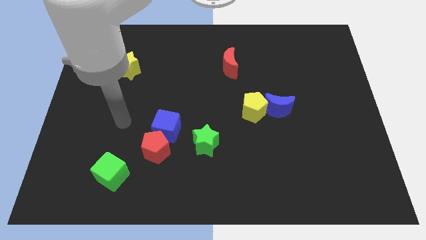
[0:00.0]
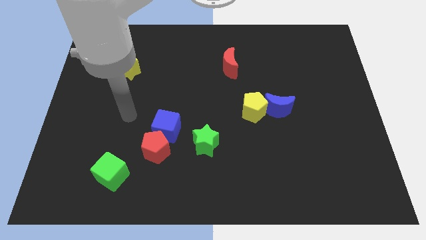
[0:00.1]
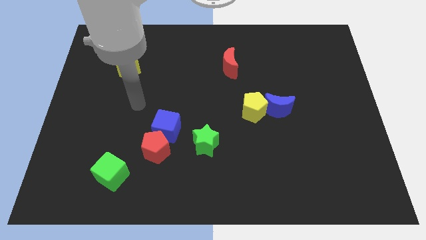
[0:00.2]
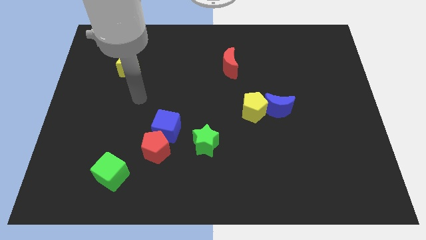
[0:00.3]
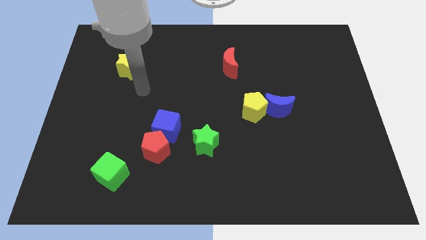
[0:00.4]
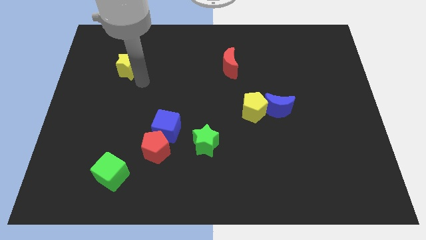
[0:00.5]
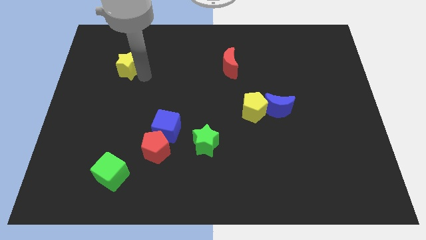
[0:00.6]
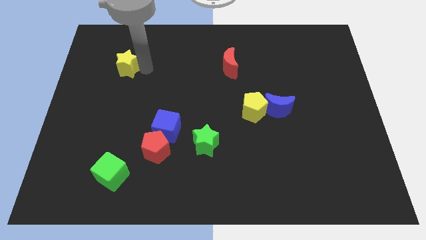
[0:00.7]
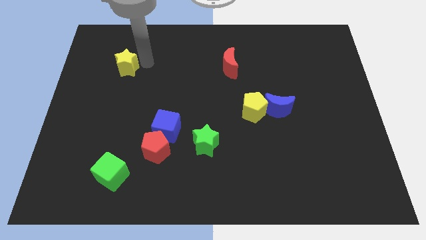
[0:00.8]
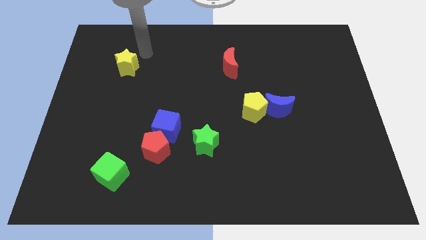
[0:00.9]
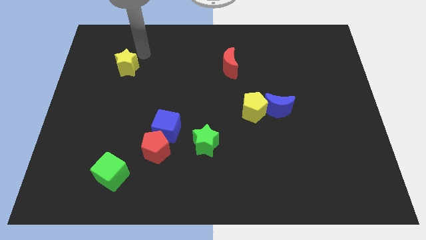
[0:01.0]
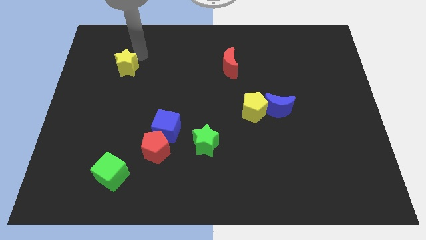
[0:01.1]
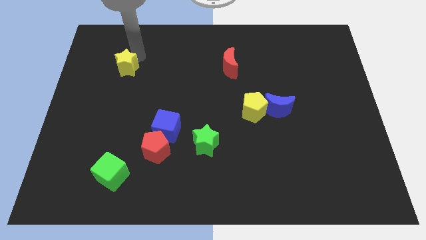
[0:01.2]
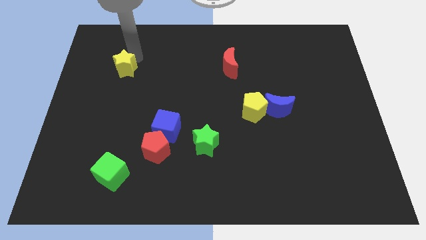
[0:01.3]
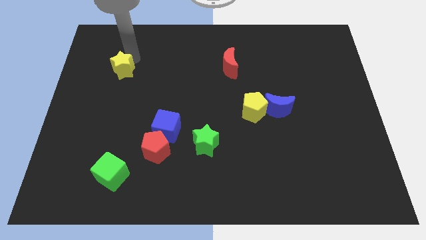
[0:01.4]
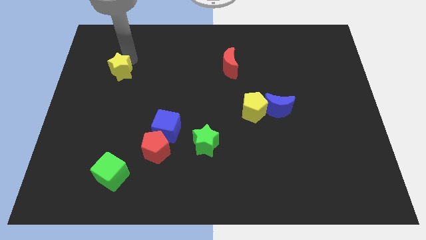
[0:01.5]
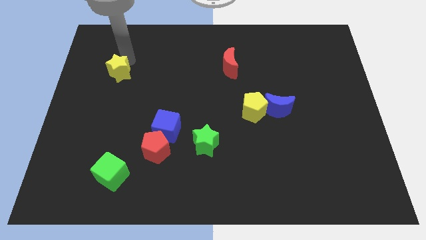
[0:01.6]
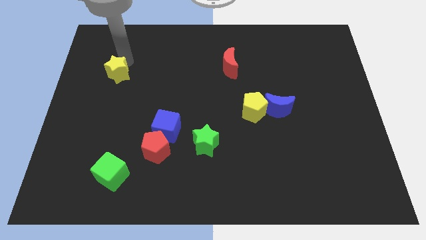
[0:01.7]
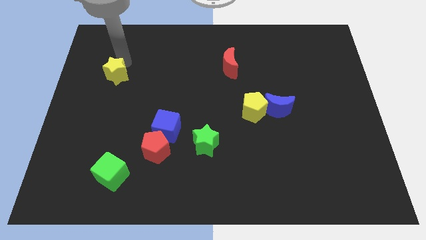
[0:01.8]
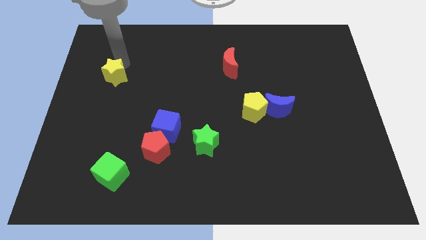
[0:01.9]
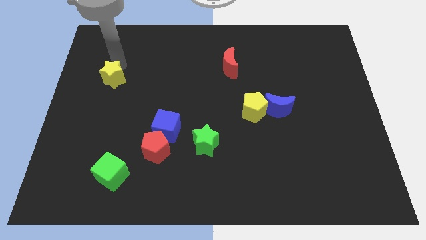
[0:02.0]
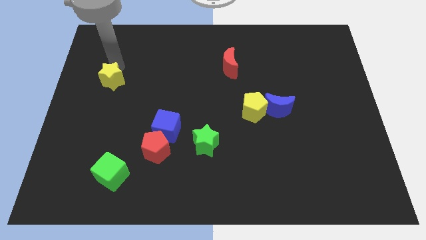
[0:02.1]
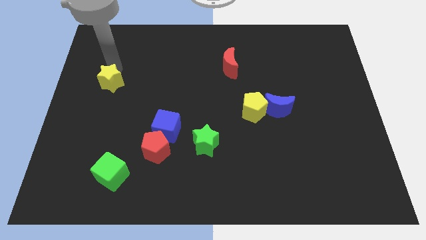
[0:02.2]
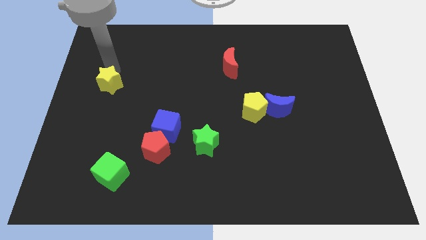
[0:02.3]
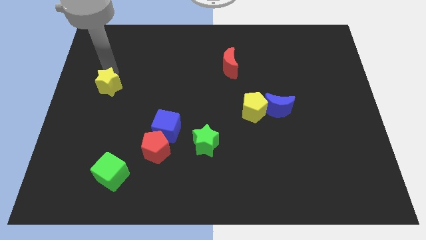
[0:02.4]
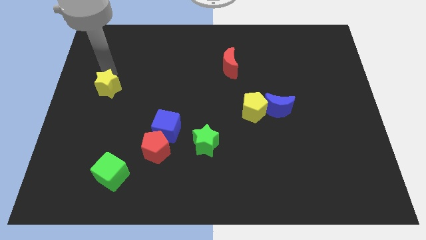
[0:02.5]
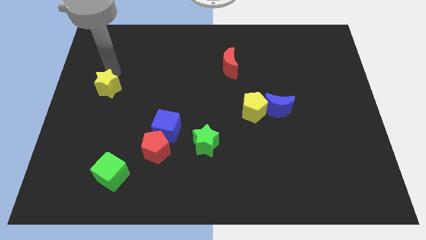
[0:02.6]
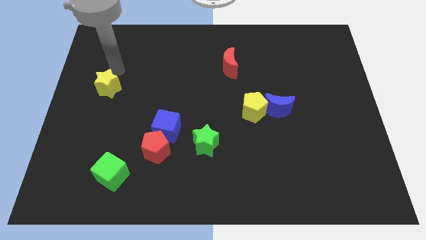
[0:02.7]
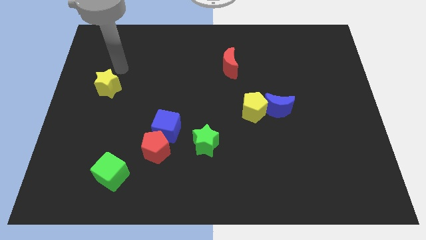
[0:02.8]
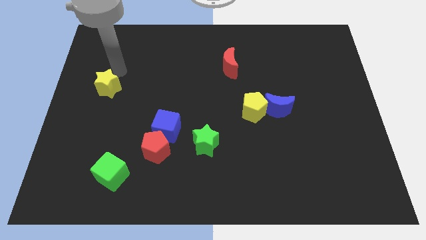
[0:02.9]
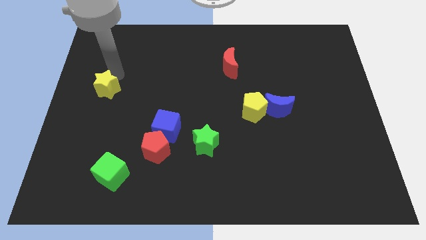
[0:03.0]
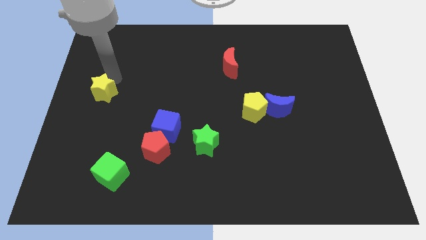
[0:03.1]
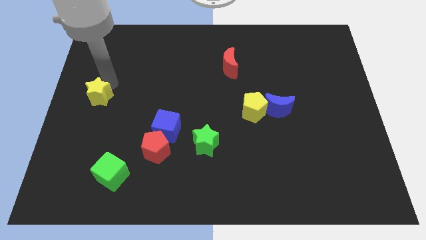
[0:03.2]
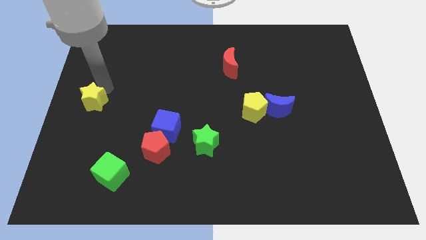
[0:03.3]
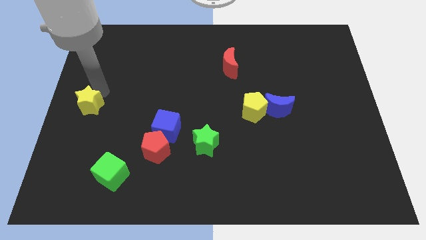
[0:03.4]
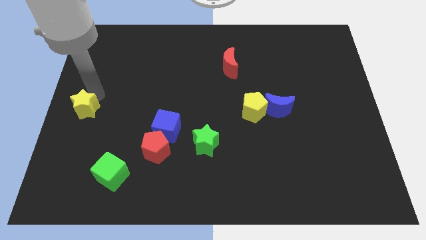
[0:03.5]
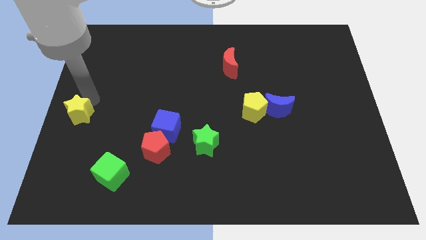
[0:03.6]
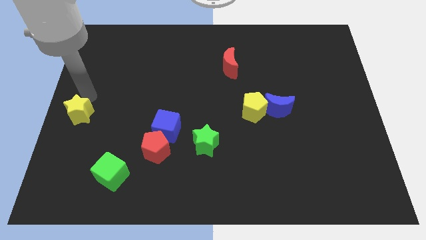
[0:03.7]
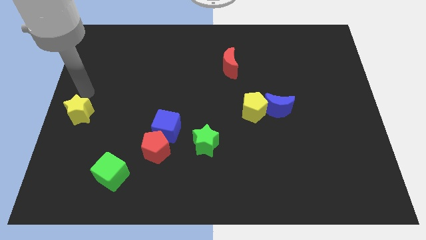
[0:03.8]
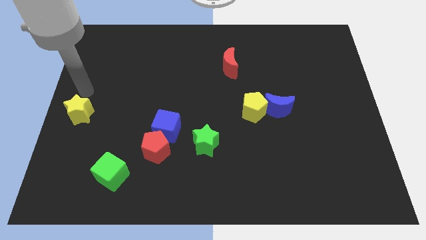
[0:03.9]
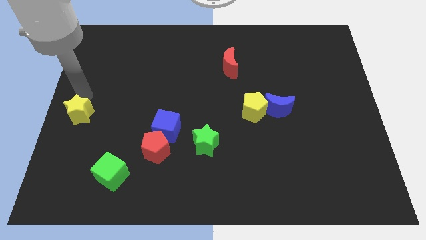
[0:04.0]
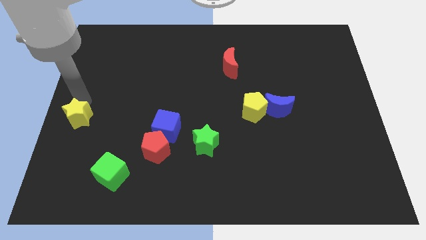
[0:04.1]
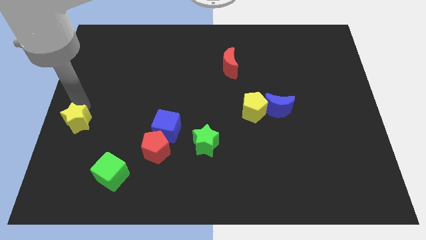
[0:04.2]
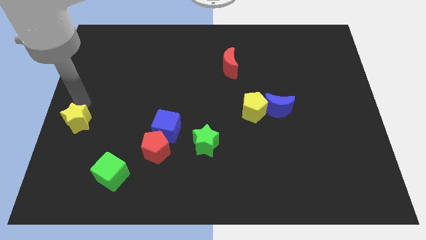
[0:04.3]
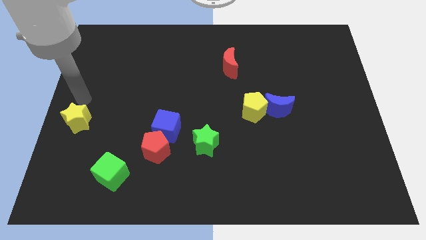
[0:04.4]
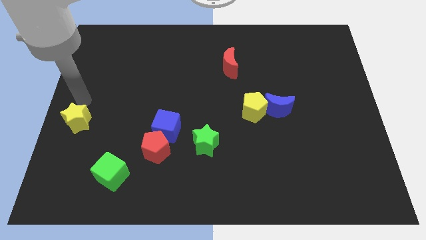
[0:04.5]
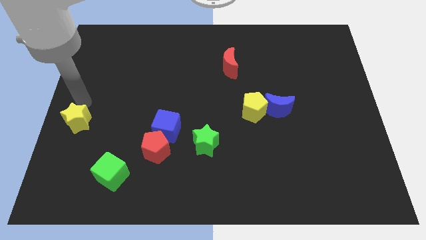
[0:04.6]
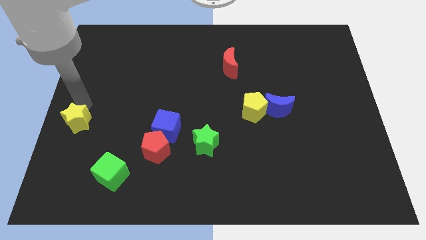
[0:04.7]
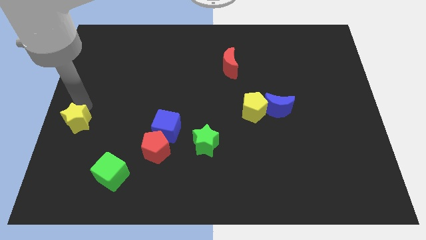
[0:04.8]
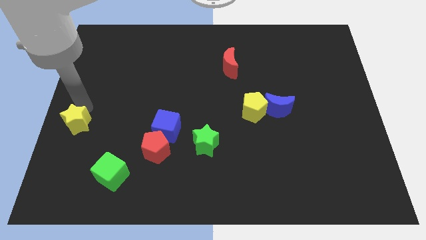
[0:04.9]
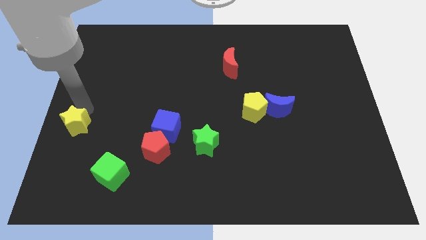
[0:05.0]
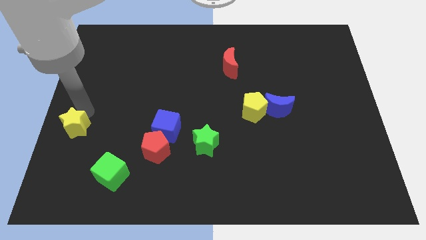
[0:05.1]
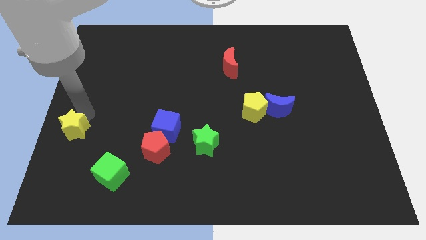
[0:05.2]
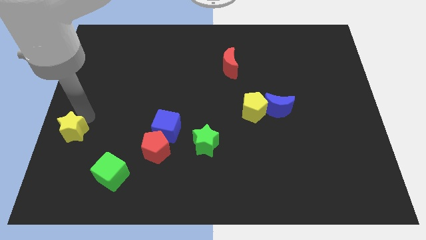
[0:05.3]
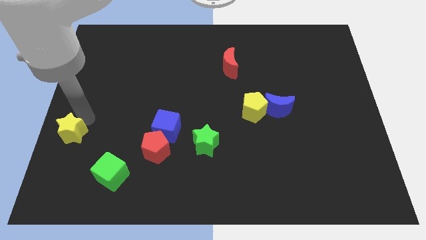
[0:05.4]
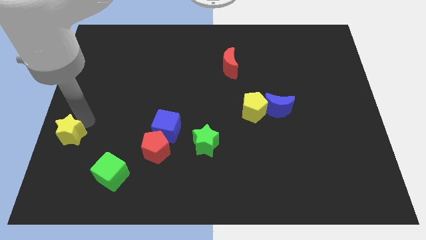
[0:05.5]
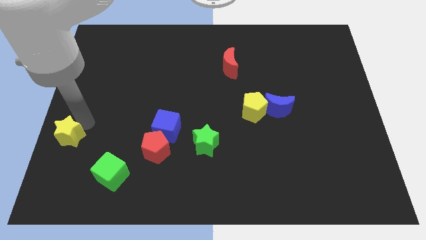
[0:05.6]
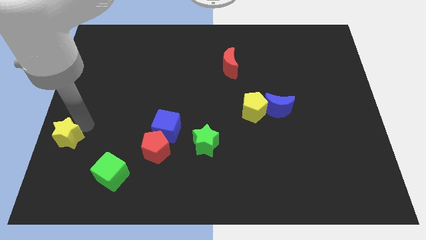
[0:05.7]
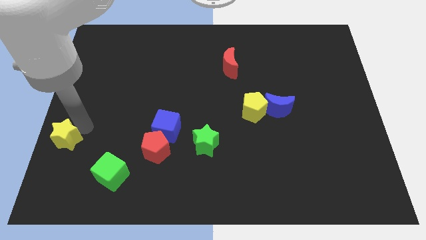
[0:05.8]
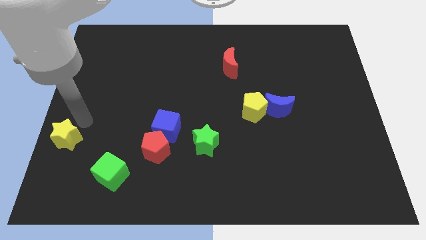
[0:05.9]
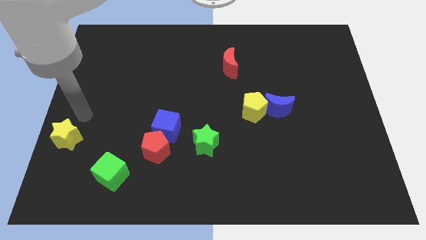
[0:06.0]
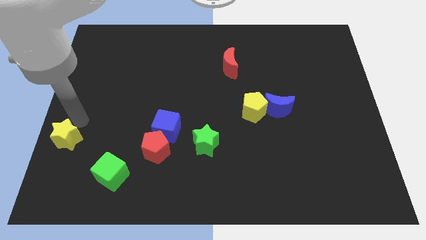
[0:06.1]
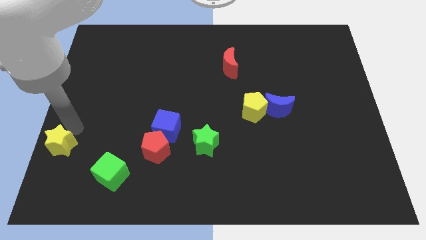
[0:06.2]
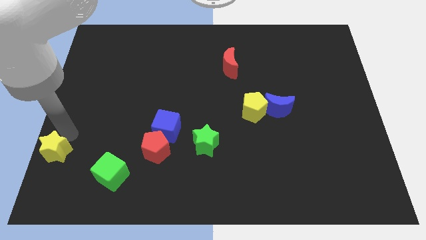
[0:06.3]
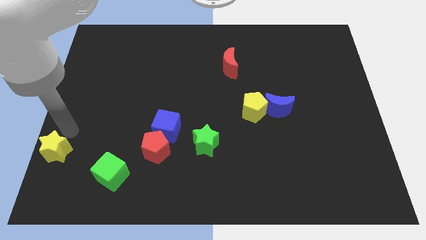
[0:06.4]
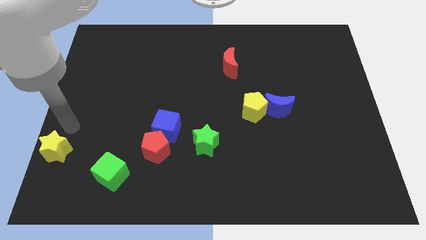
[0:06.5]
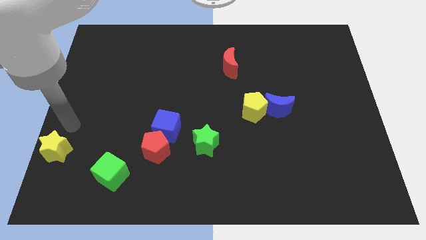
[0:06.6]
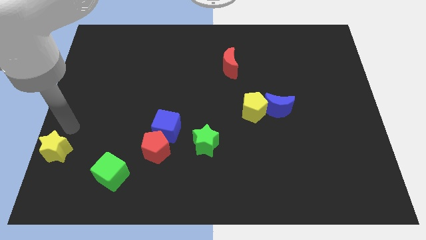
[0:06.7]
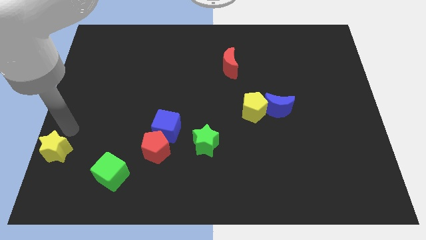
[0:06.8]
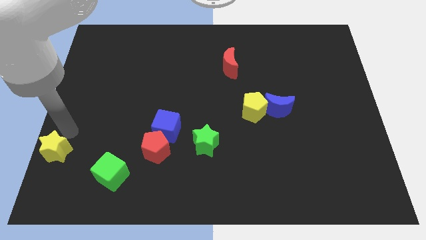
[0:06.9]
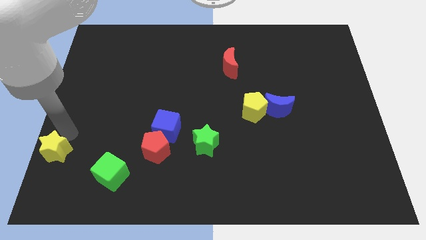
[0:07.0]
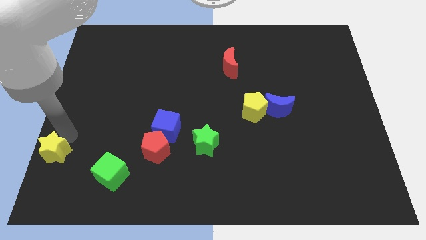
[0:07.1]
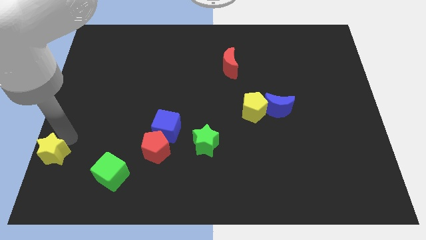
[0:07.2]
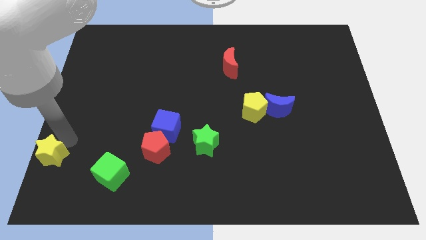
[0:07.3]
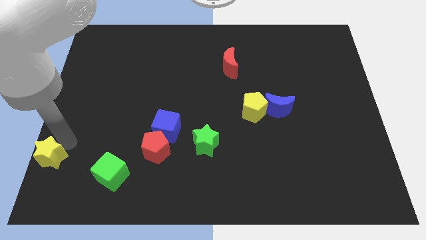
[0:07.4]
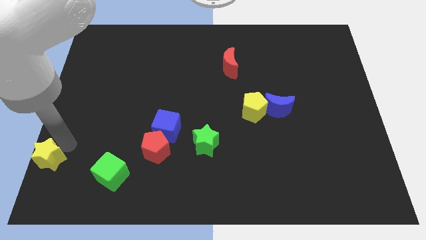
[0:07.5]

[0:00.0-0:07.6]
move the yellow star to the lower left corner

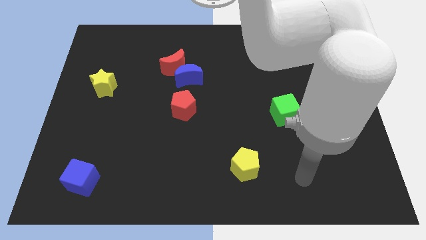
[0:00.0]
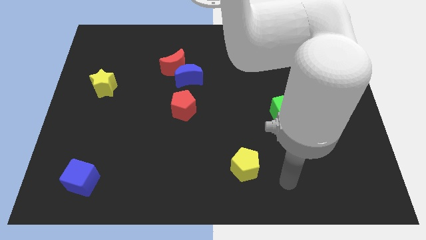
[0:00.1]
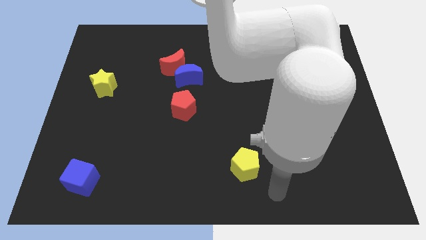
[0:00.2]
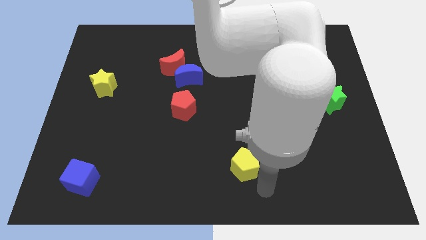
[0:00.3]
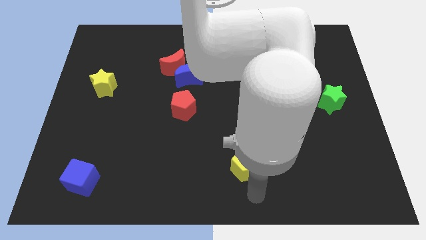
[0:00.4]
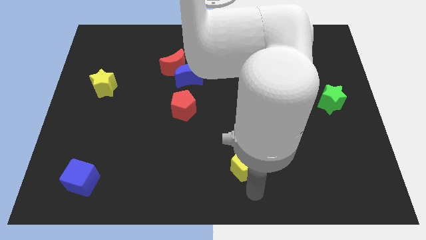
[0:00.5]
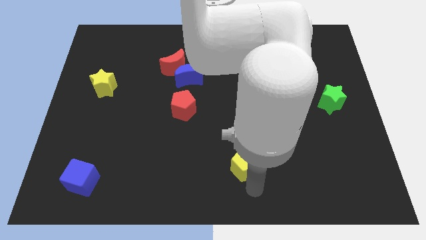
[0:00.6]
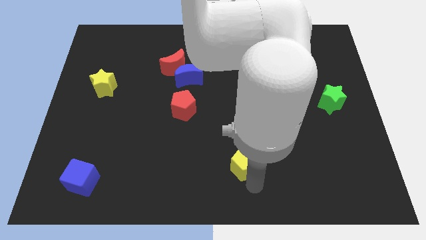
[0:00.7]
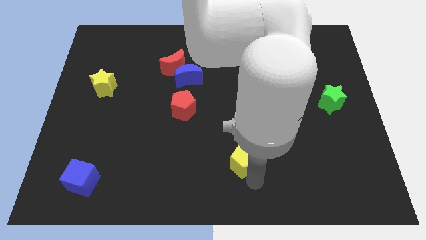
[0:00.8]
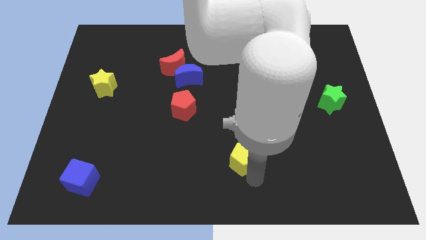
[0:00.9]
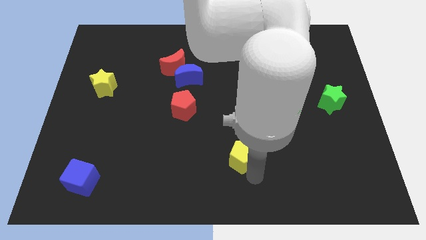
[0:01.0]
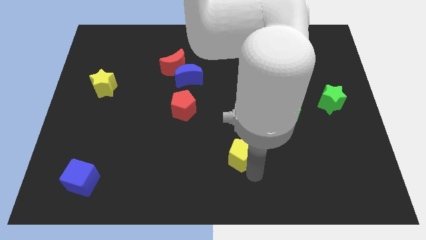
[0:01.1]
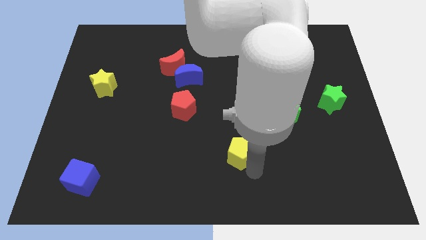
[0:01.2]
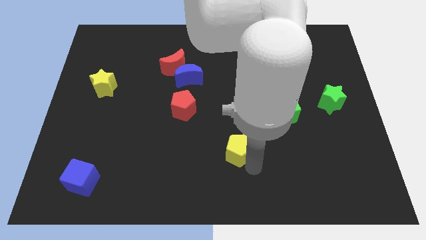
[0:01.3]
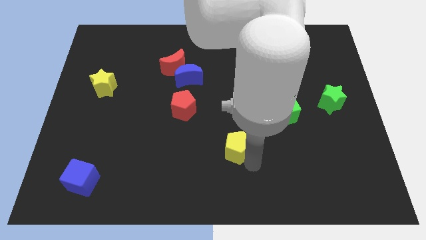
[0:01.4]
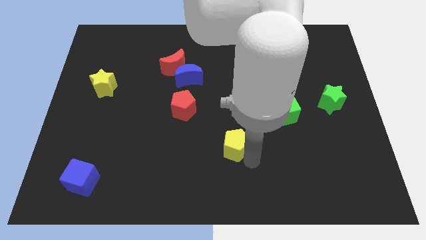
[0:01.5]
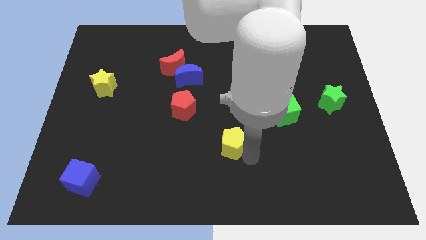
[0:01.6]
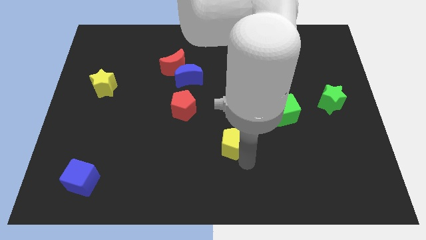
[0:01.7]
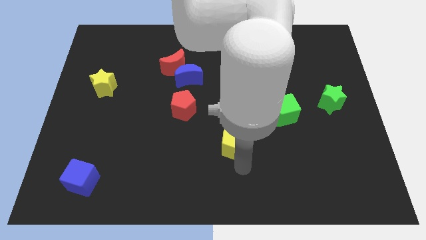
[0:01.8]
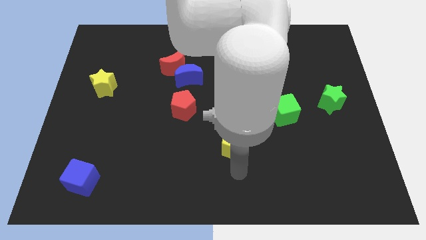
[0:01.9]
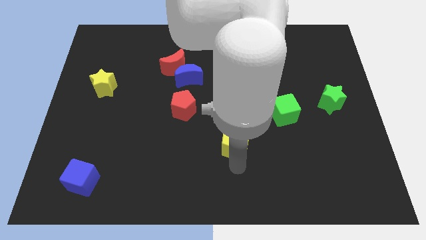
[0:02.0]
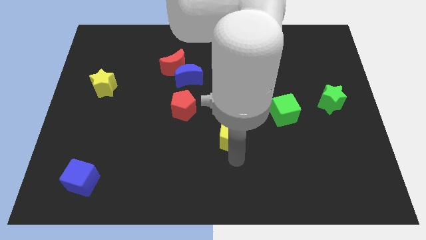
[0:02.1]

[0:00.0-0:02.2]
move the yellow pentagon to the center of the board
